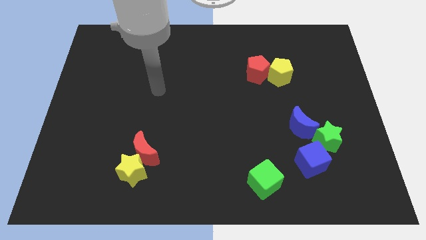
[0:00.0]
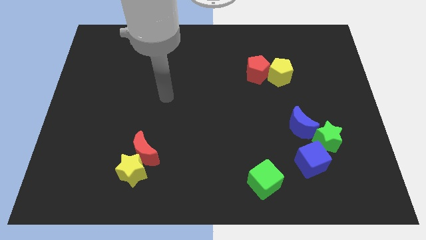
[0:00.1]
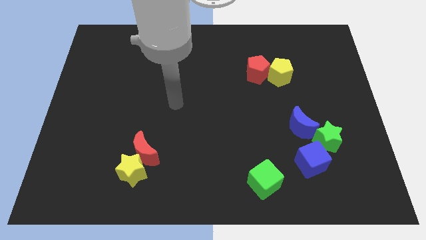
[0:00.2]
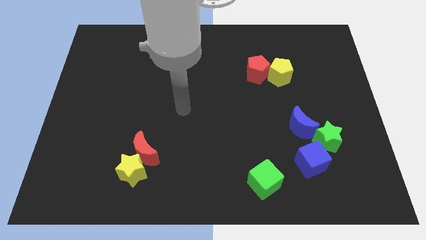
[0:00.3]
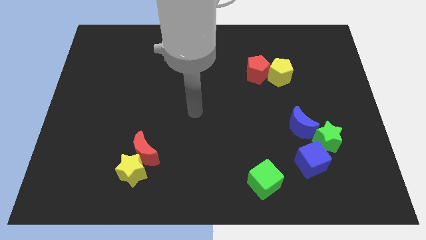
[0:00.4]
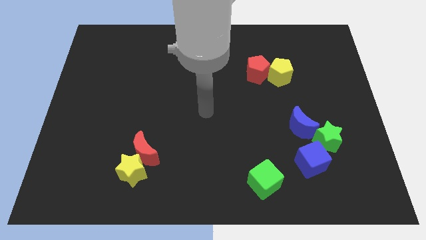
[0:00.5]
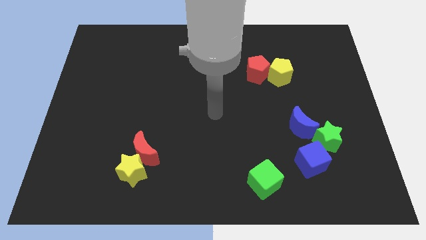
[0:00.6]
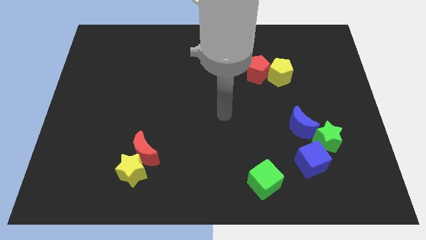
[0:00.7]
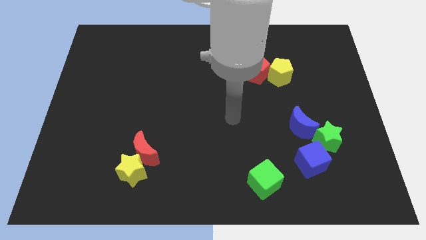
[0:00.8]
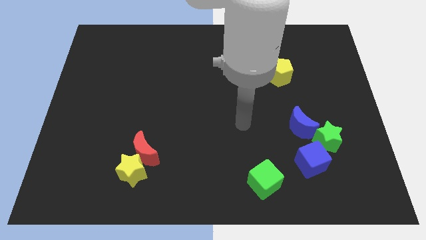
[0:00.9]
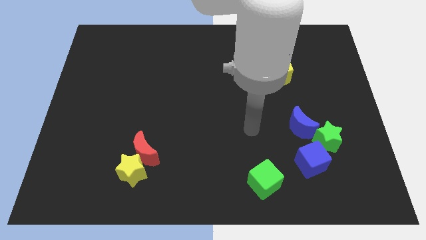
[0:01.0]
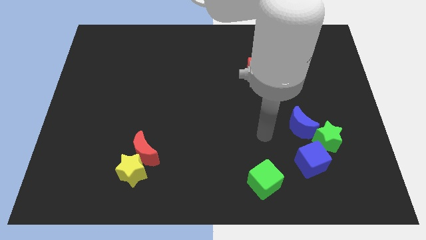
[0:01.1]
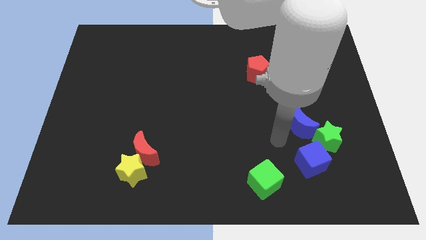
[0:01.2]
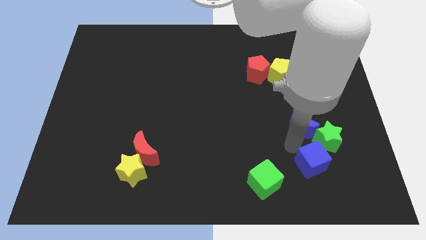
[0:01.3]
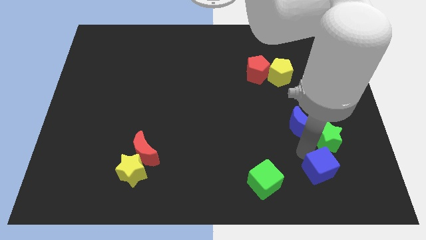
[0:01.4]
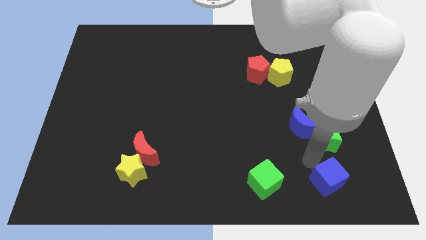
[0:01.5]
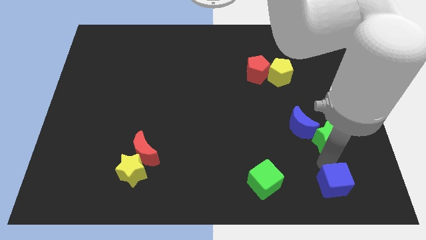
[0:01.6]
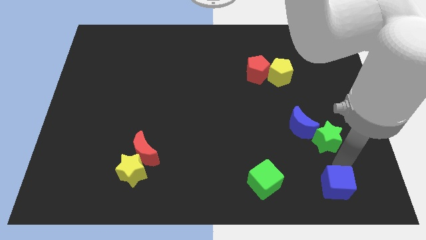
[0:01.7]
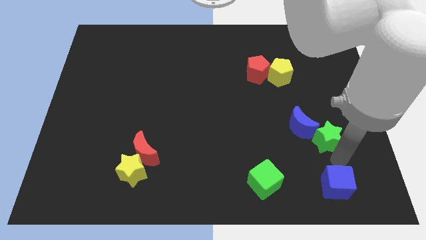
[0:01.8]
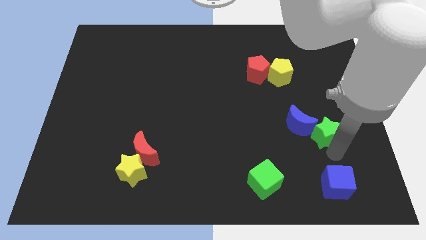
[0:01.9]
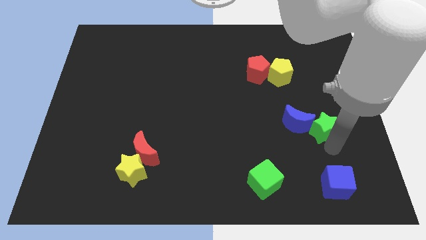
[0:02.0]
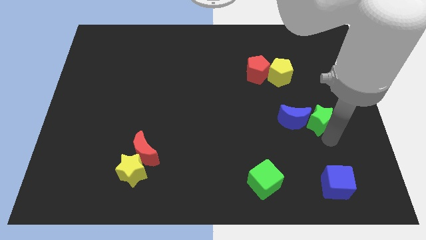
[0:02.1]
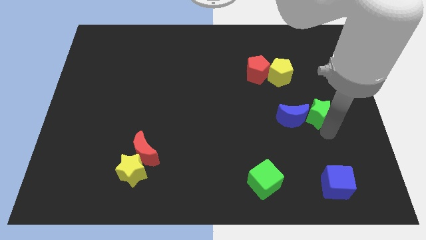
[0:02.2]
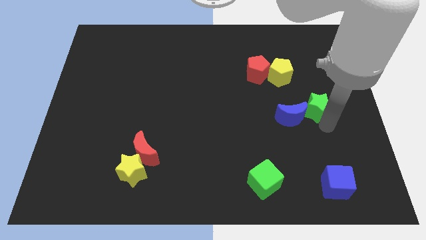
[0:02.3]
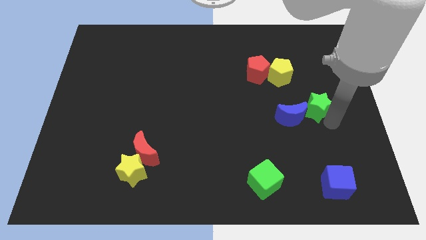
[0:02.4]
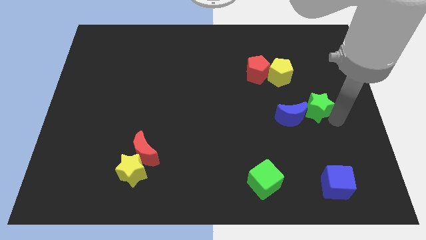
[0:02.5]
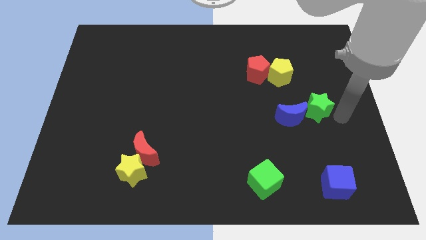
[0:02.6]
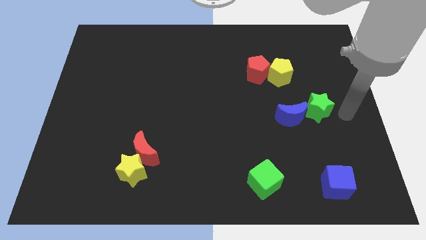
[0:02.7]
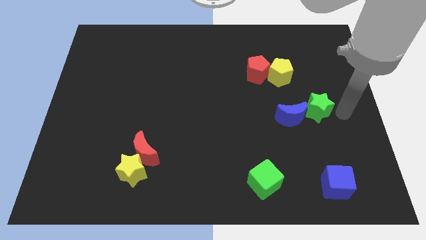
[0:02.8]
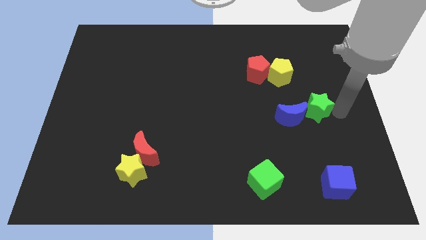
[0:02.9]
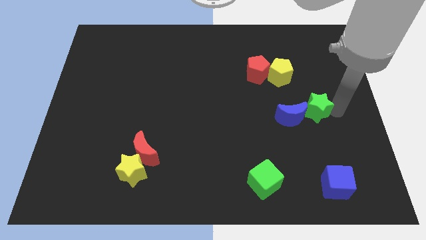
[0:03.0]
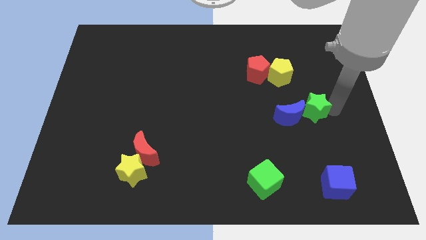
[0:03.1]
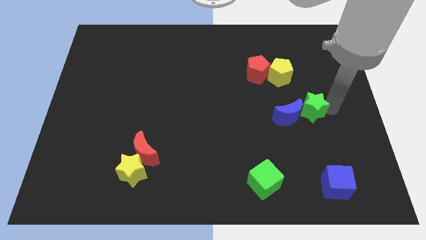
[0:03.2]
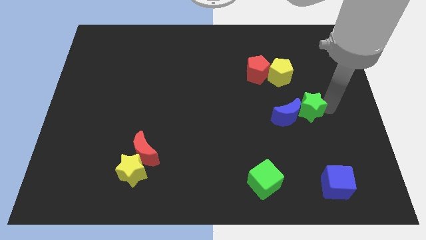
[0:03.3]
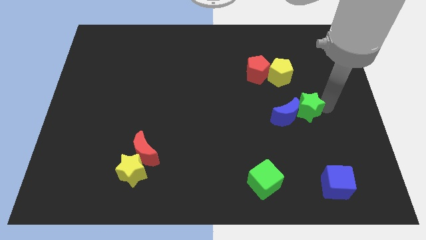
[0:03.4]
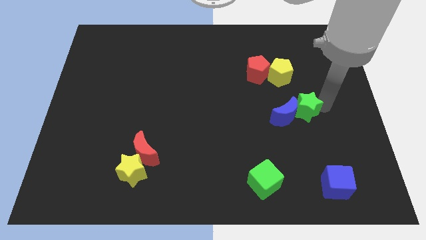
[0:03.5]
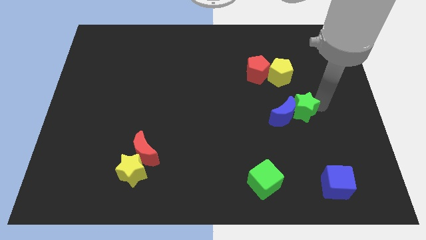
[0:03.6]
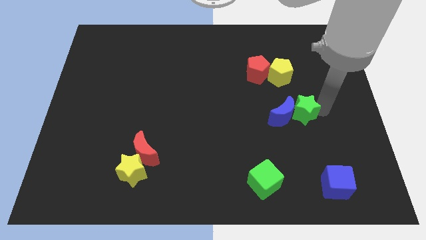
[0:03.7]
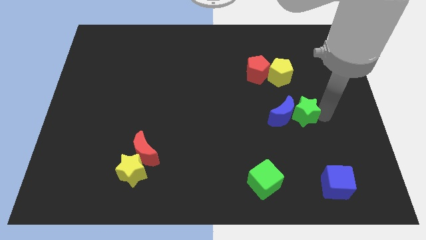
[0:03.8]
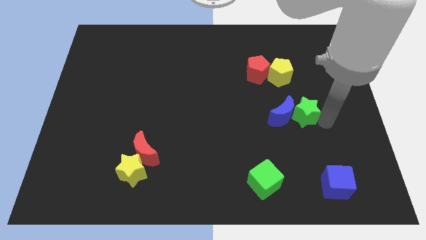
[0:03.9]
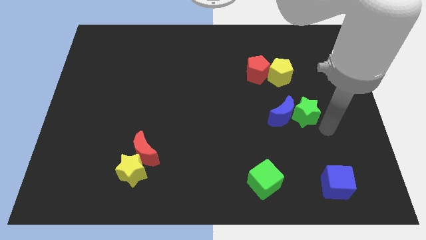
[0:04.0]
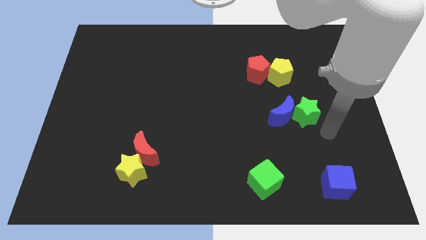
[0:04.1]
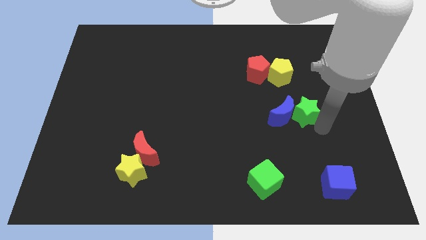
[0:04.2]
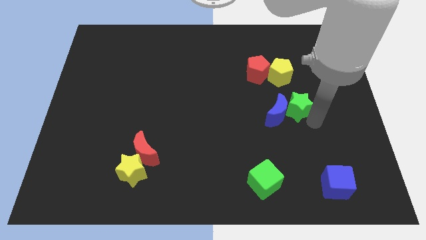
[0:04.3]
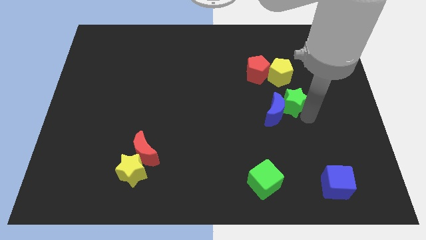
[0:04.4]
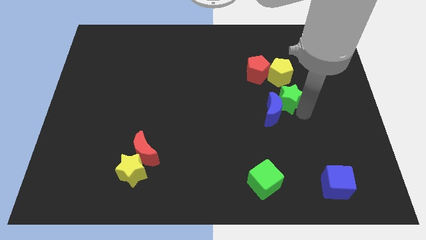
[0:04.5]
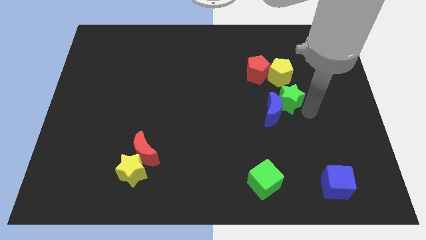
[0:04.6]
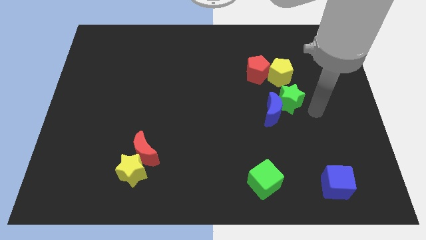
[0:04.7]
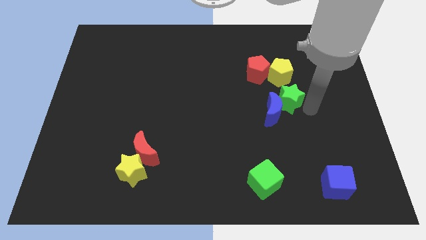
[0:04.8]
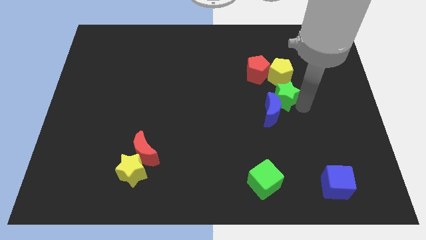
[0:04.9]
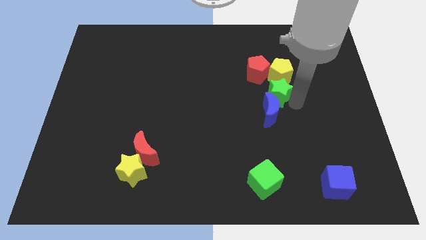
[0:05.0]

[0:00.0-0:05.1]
move the green star diagonally down and to the left of the yellow pentagon

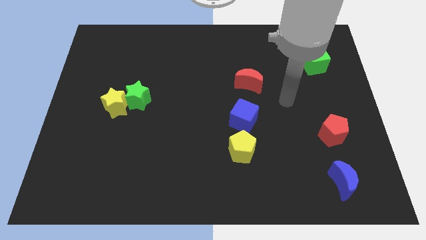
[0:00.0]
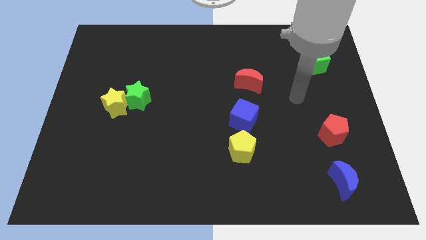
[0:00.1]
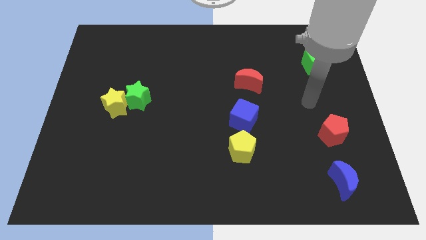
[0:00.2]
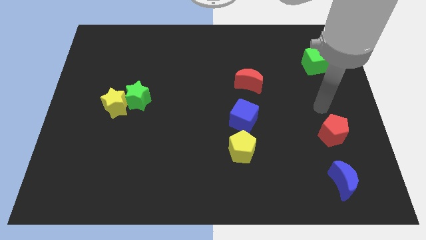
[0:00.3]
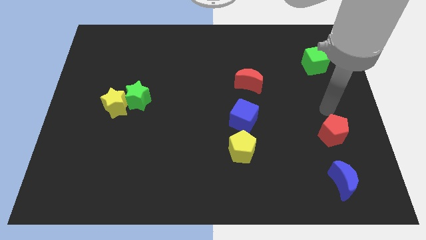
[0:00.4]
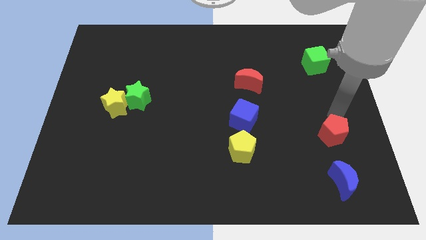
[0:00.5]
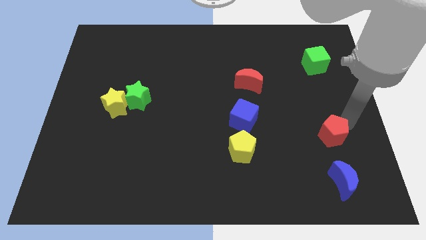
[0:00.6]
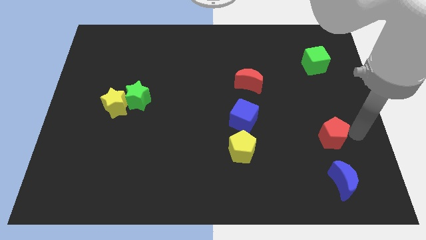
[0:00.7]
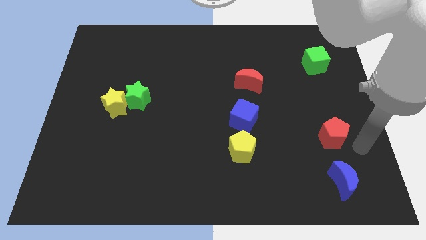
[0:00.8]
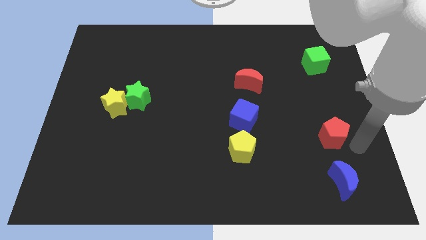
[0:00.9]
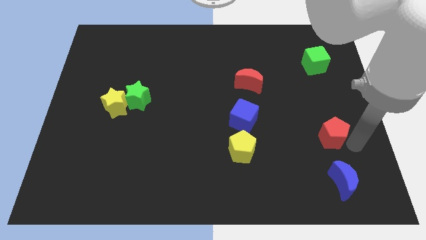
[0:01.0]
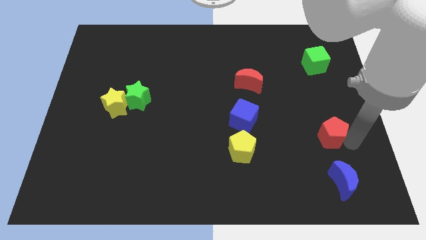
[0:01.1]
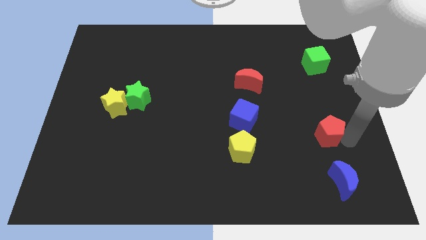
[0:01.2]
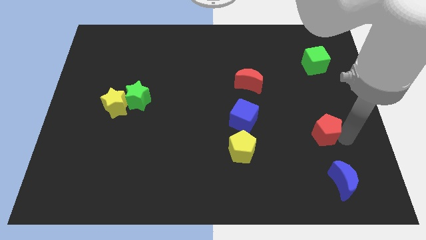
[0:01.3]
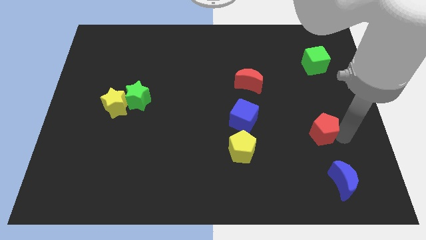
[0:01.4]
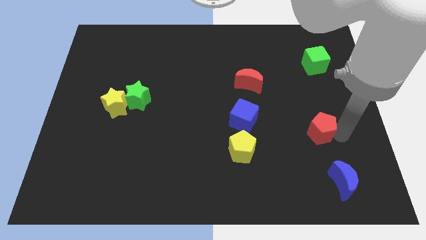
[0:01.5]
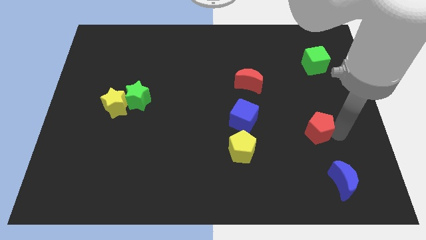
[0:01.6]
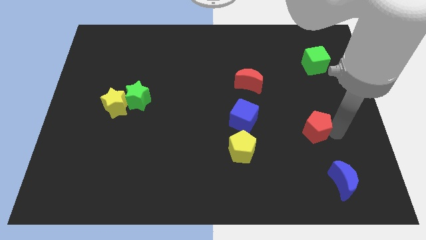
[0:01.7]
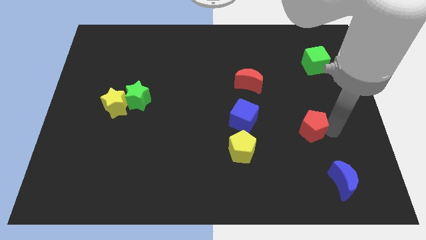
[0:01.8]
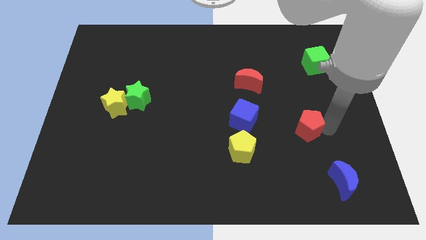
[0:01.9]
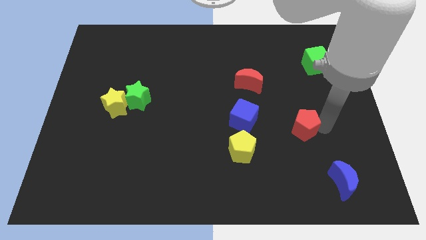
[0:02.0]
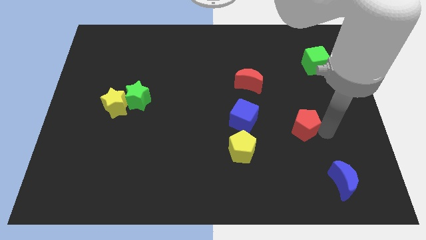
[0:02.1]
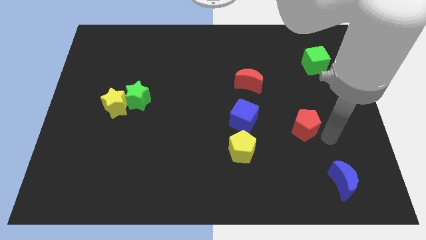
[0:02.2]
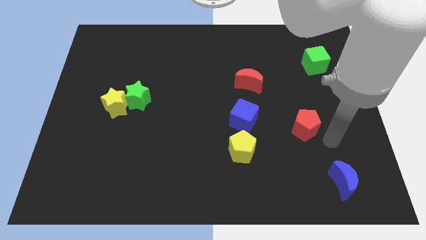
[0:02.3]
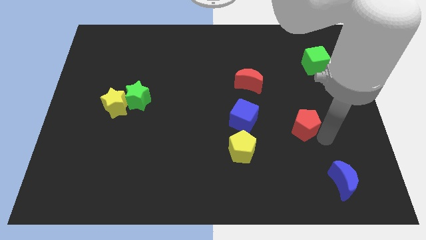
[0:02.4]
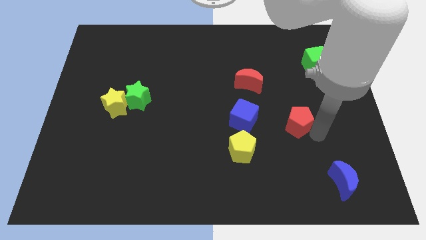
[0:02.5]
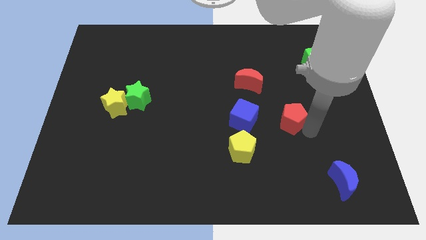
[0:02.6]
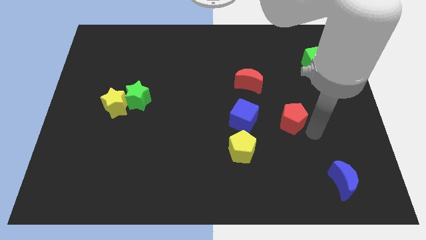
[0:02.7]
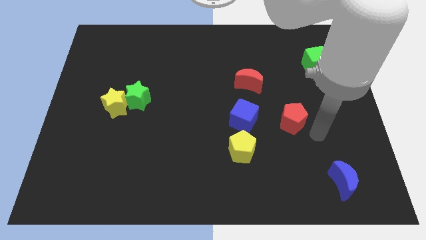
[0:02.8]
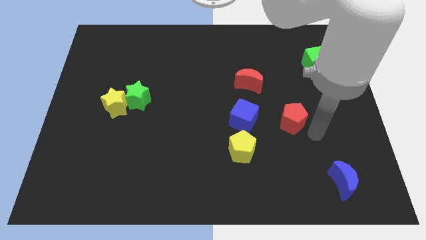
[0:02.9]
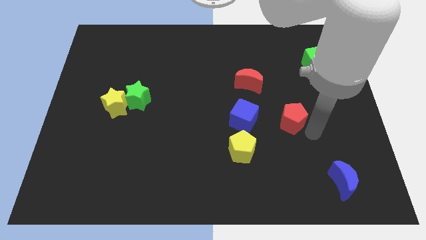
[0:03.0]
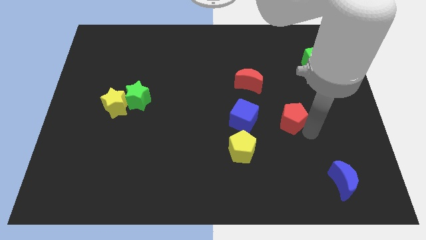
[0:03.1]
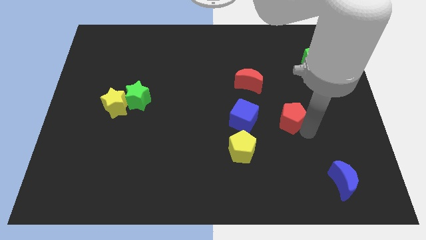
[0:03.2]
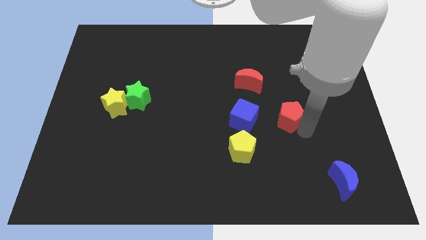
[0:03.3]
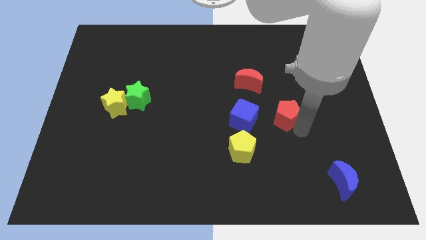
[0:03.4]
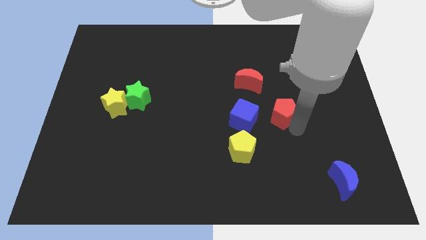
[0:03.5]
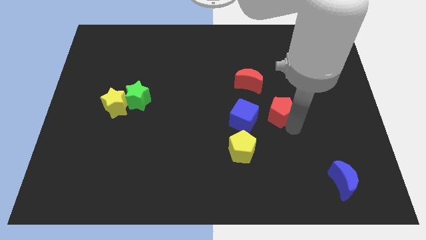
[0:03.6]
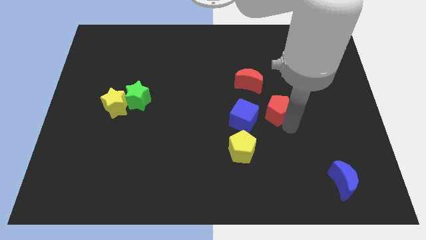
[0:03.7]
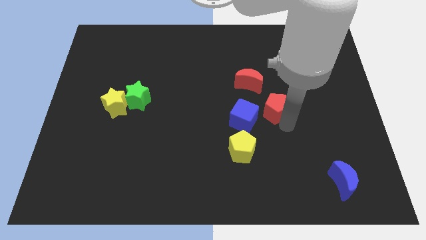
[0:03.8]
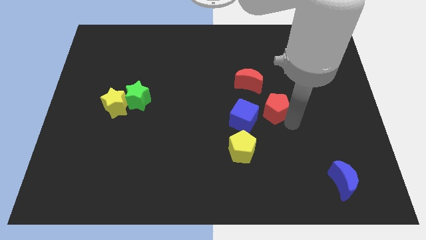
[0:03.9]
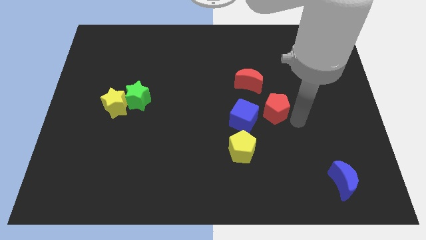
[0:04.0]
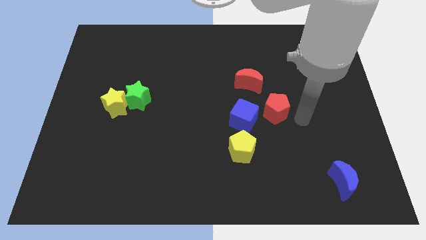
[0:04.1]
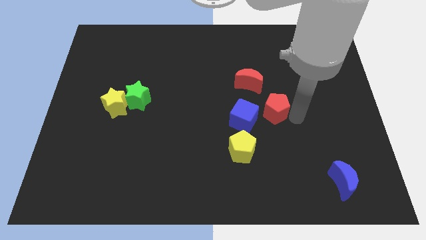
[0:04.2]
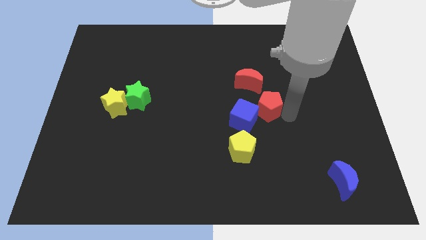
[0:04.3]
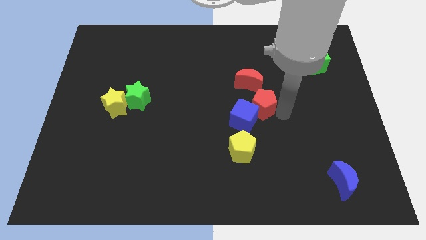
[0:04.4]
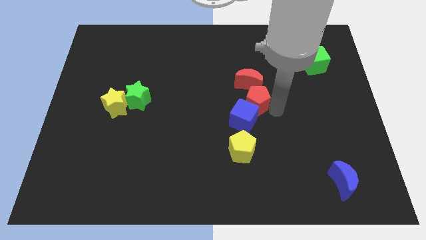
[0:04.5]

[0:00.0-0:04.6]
push the red pentagon to the top side of the yellow pentagon
